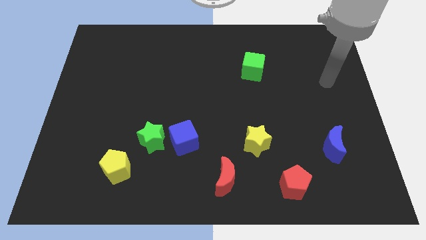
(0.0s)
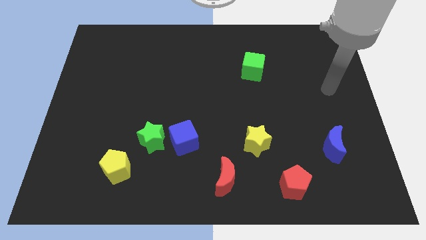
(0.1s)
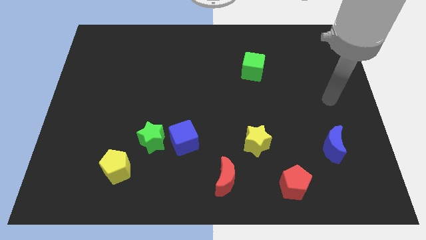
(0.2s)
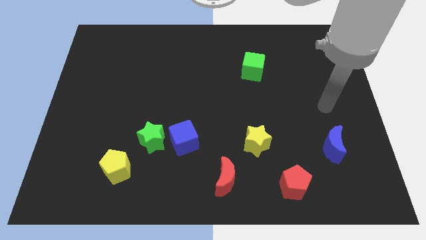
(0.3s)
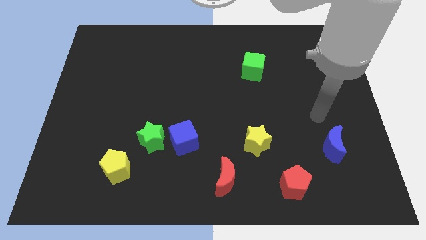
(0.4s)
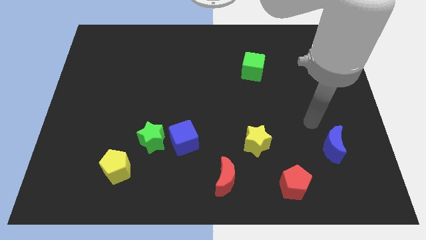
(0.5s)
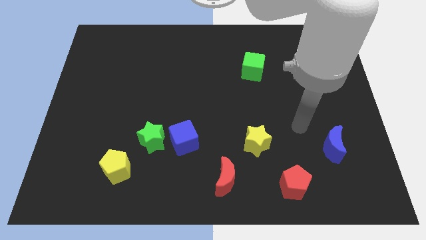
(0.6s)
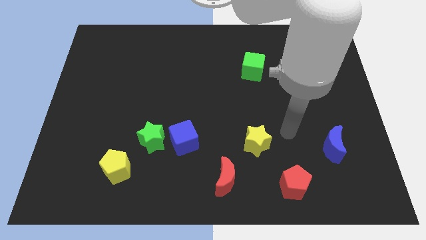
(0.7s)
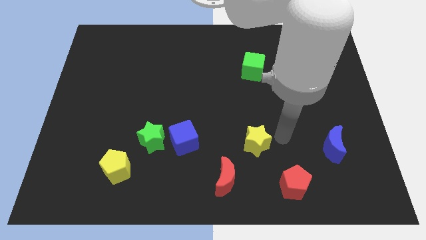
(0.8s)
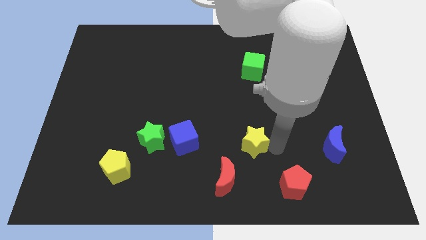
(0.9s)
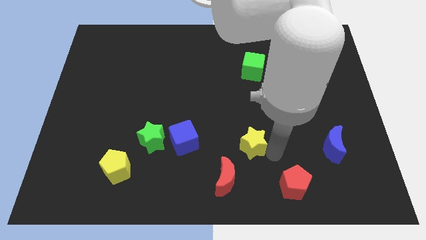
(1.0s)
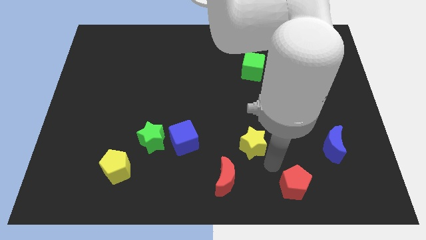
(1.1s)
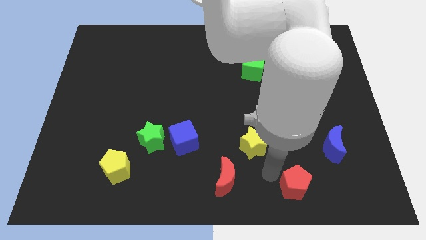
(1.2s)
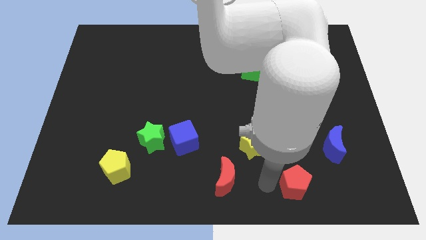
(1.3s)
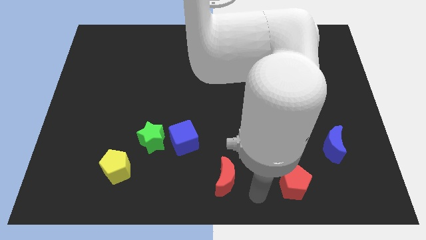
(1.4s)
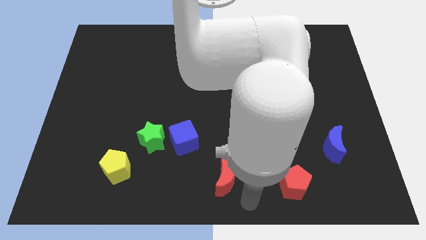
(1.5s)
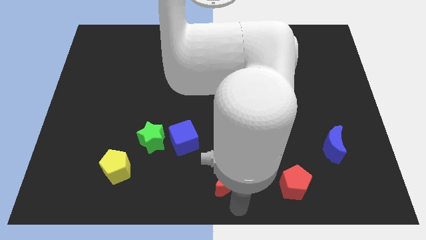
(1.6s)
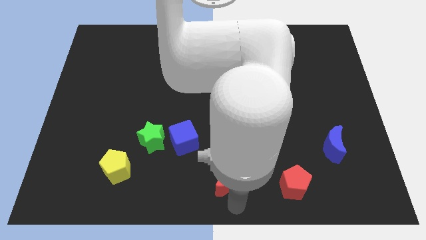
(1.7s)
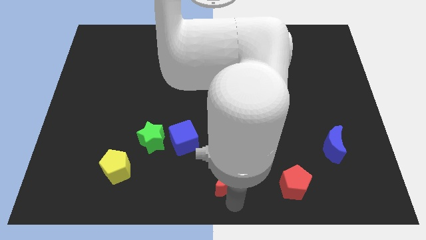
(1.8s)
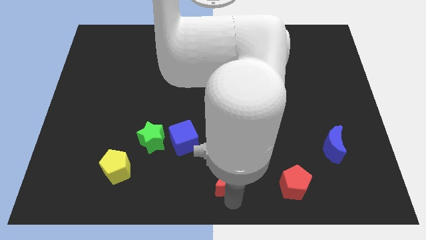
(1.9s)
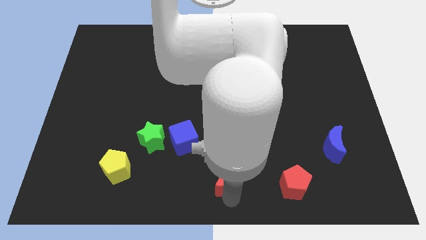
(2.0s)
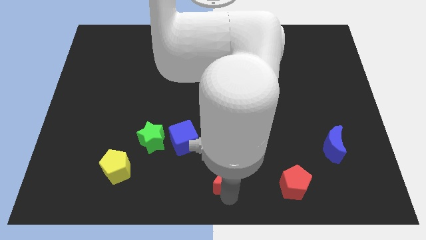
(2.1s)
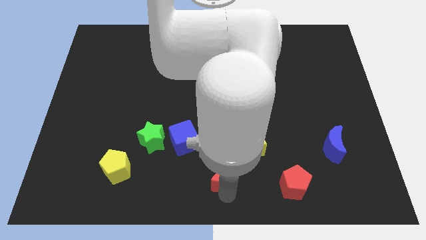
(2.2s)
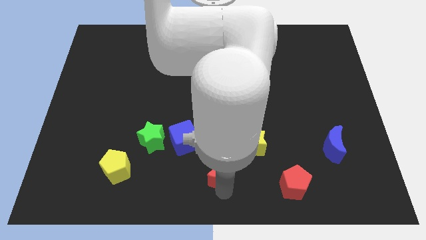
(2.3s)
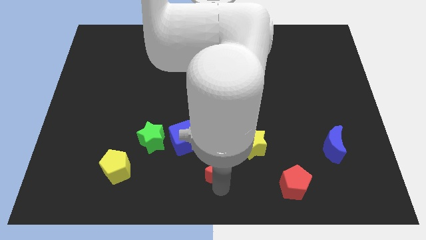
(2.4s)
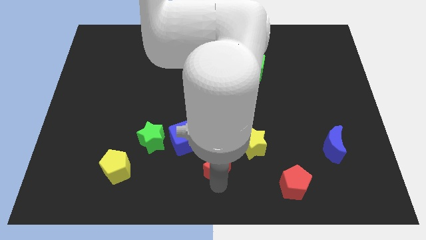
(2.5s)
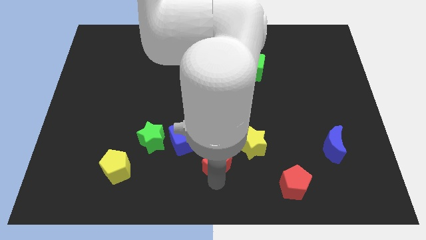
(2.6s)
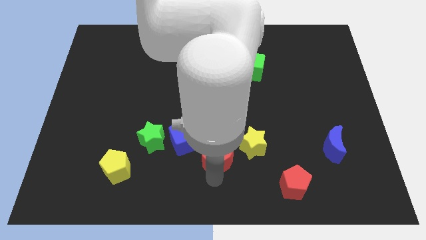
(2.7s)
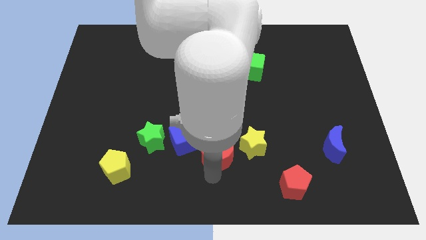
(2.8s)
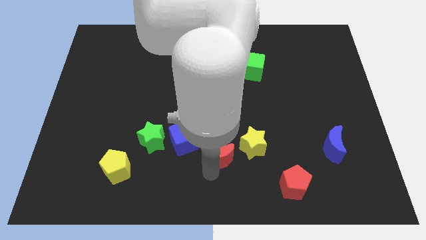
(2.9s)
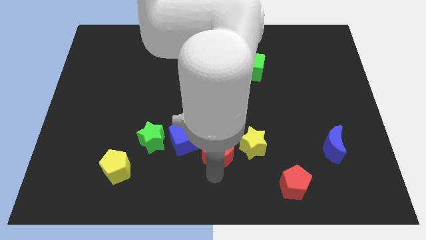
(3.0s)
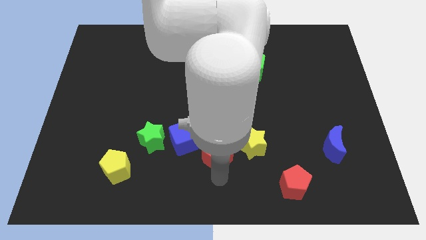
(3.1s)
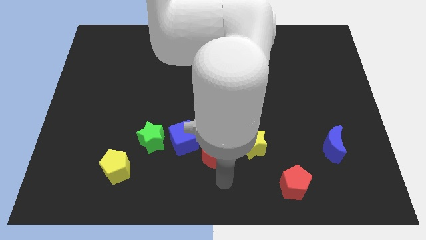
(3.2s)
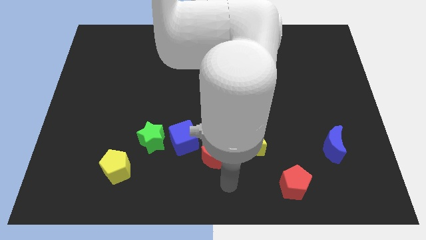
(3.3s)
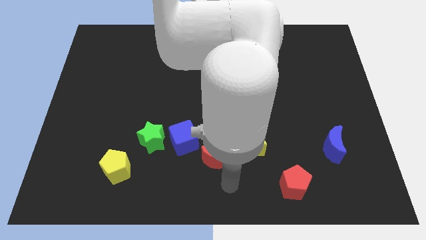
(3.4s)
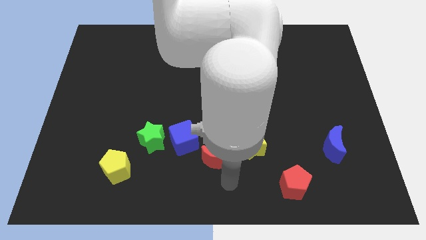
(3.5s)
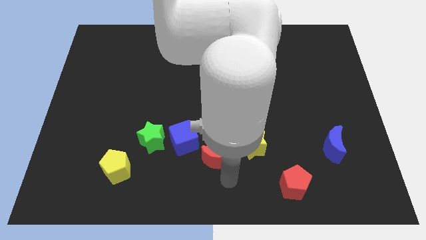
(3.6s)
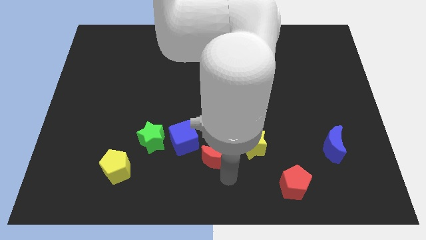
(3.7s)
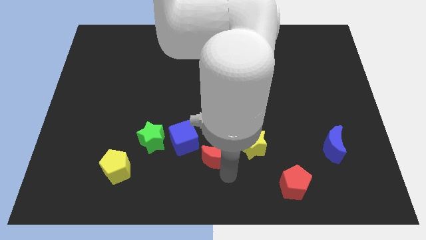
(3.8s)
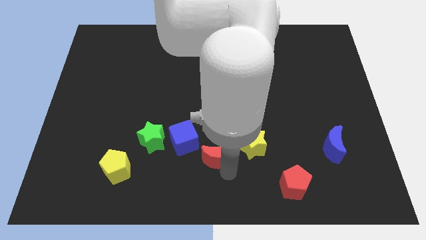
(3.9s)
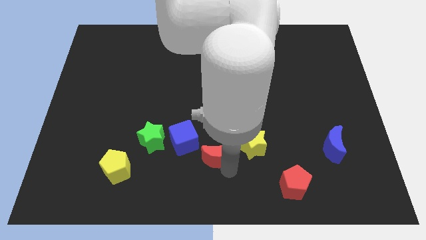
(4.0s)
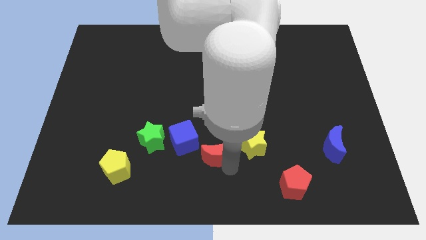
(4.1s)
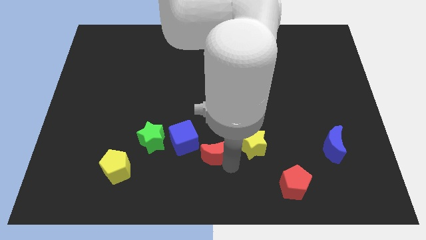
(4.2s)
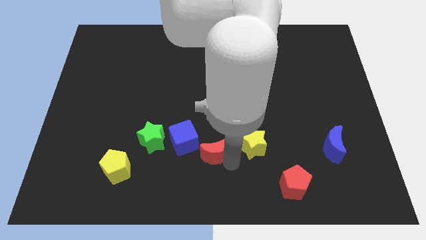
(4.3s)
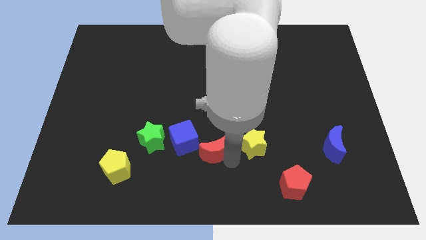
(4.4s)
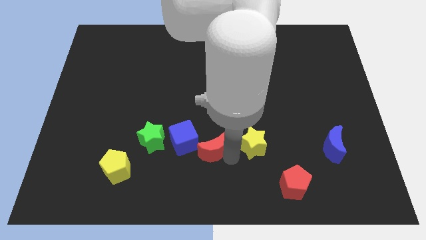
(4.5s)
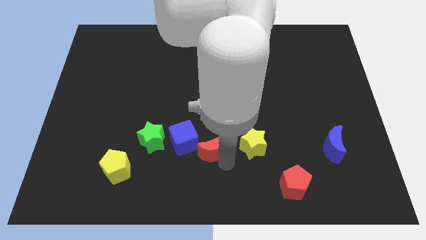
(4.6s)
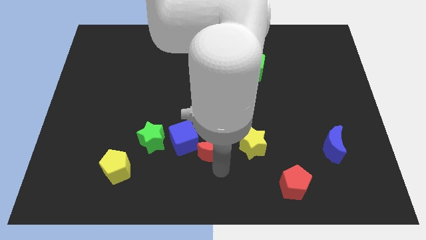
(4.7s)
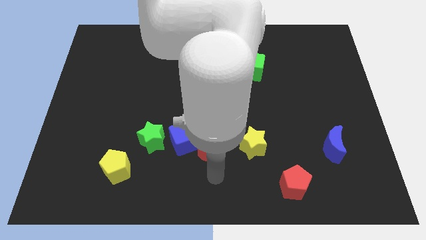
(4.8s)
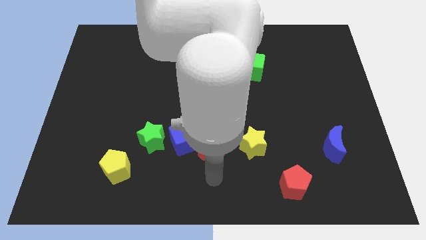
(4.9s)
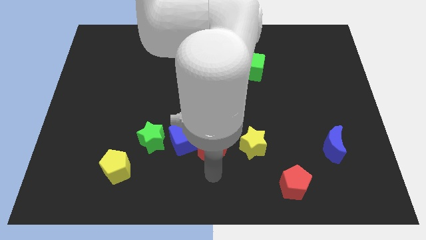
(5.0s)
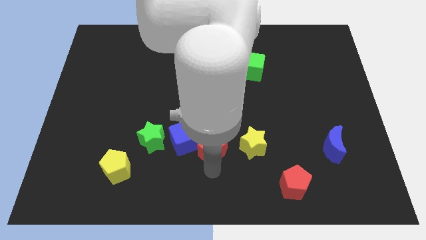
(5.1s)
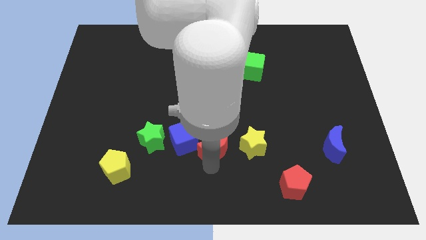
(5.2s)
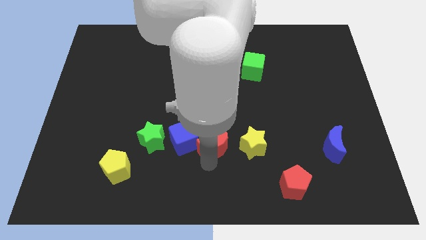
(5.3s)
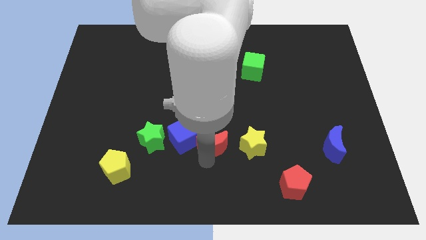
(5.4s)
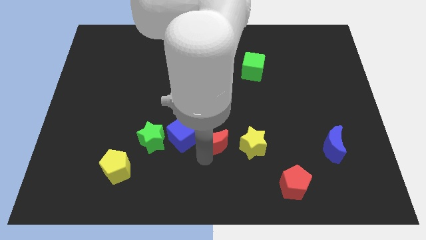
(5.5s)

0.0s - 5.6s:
slide the red moon to the middle

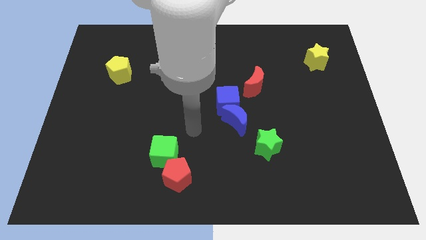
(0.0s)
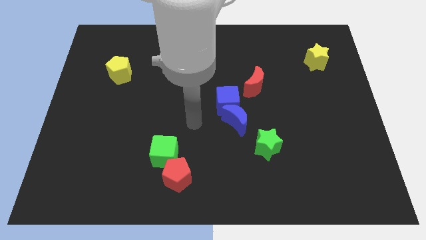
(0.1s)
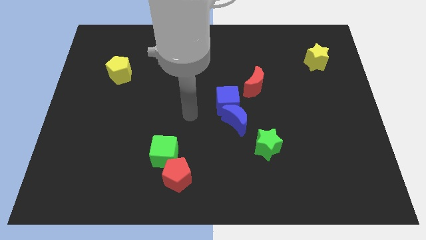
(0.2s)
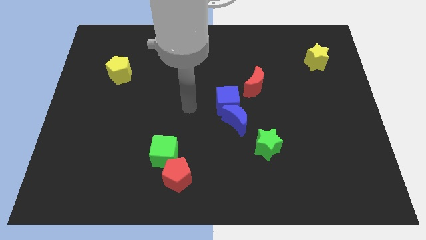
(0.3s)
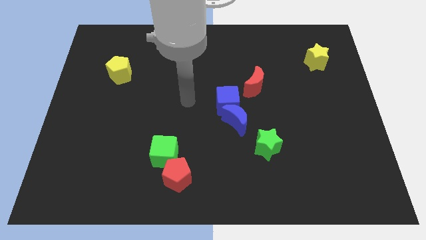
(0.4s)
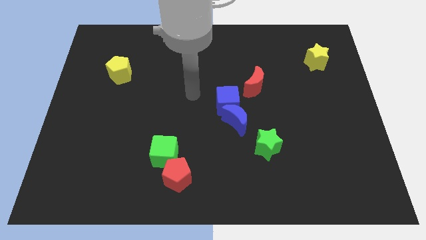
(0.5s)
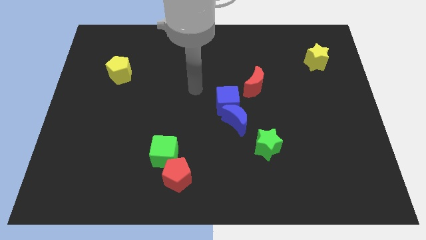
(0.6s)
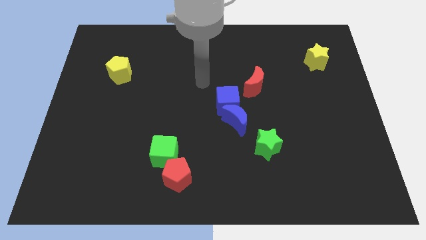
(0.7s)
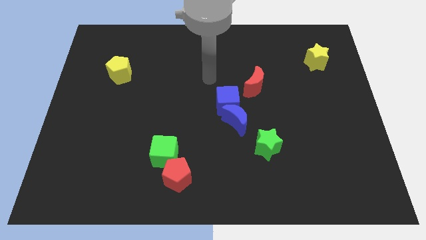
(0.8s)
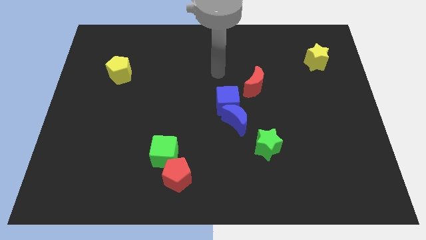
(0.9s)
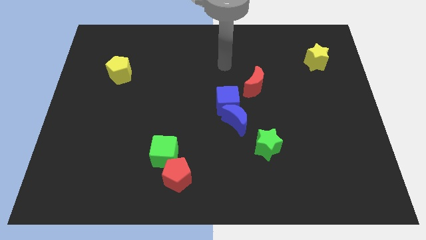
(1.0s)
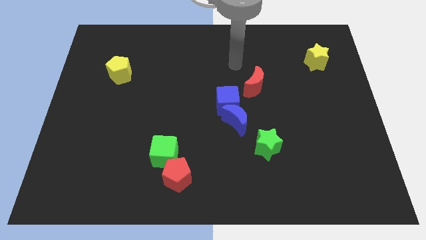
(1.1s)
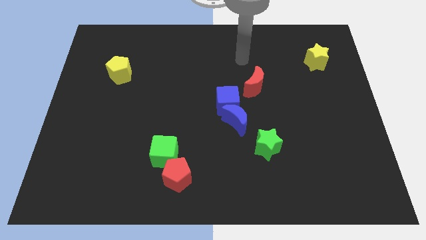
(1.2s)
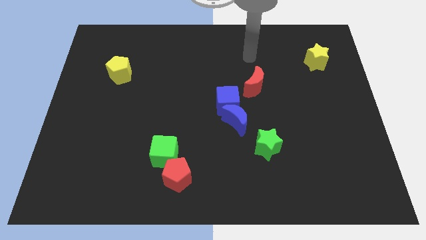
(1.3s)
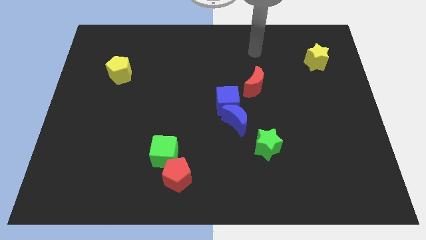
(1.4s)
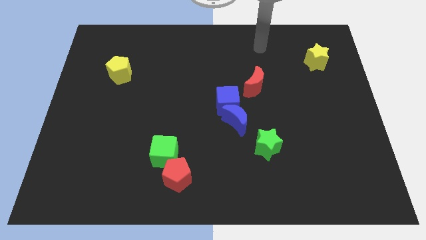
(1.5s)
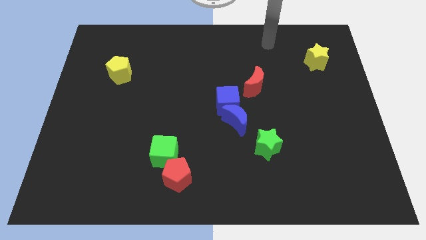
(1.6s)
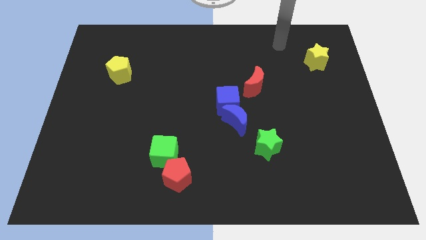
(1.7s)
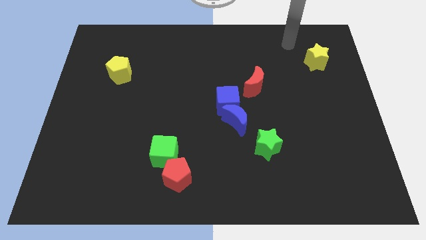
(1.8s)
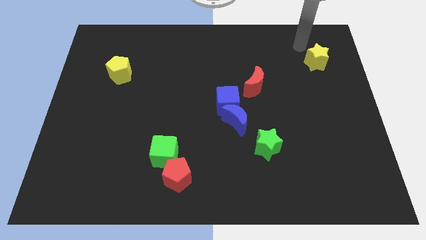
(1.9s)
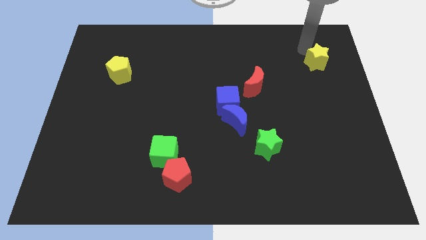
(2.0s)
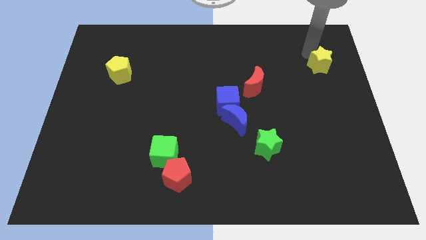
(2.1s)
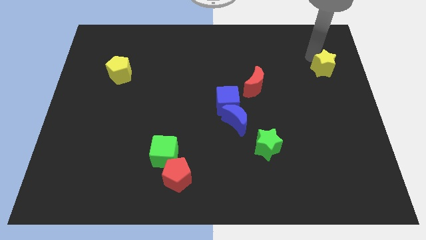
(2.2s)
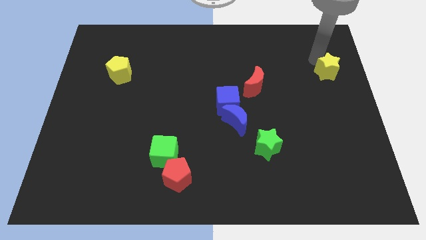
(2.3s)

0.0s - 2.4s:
push the yellow star to the right side
